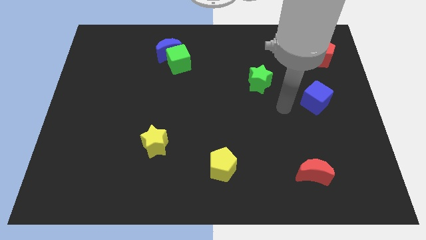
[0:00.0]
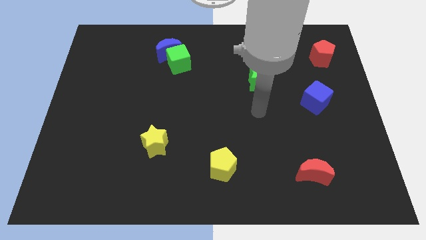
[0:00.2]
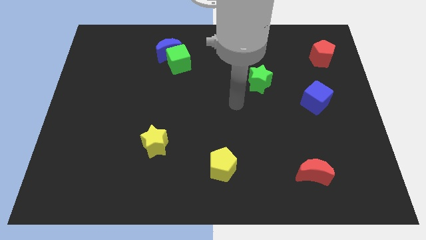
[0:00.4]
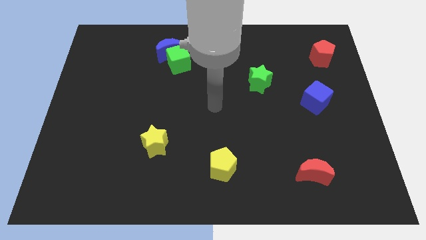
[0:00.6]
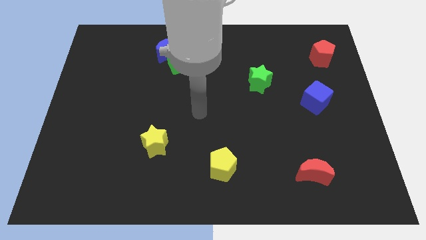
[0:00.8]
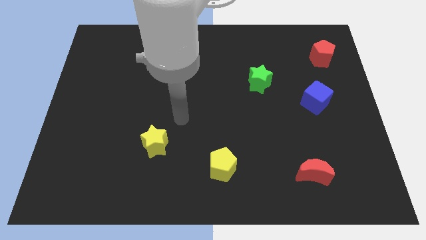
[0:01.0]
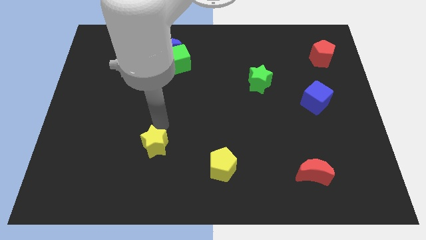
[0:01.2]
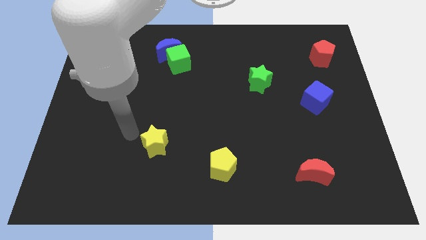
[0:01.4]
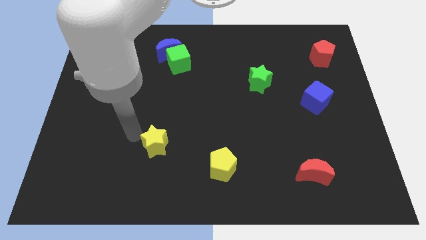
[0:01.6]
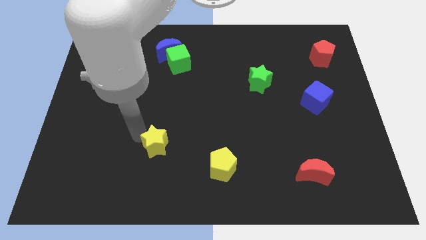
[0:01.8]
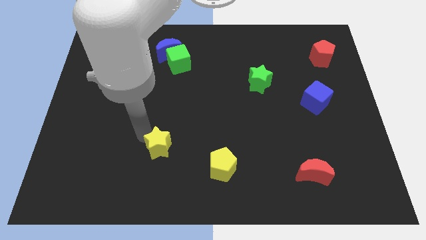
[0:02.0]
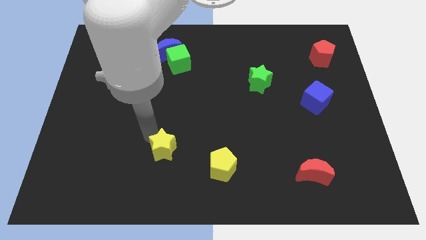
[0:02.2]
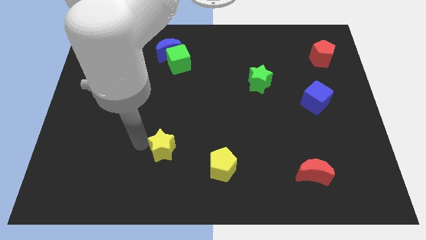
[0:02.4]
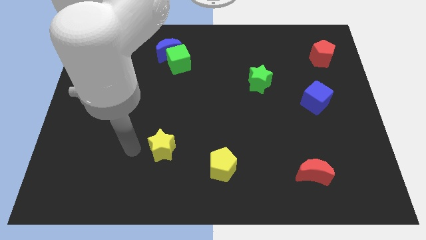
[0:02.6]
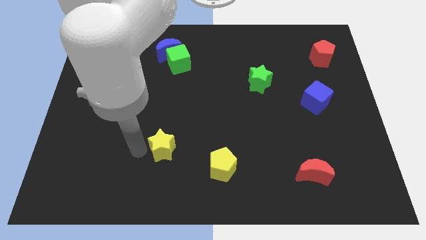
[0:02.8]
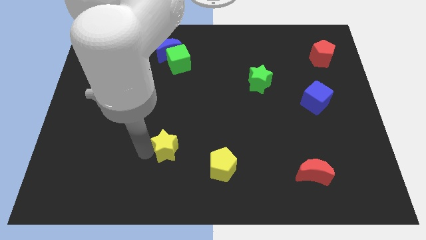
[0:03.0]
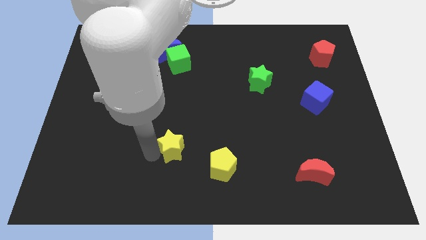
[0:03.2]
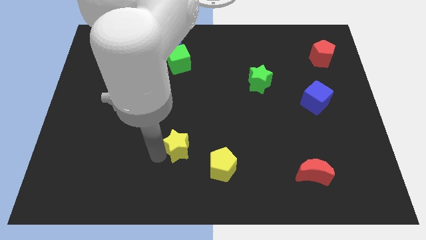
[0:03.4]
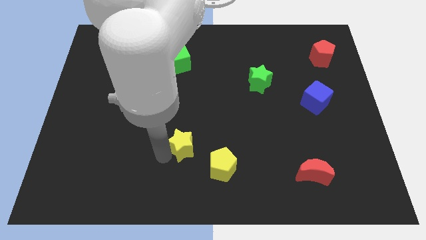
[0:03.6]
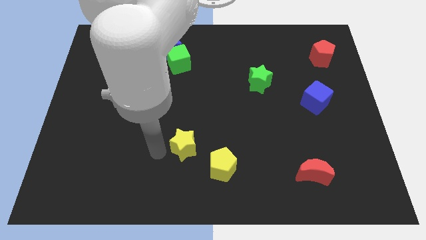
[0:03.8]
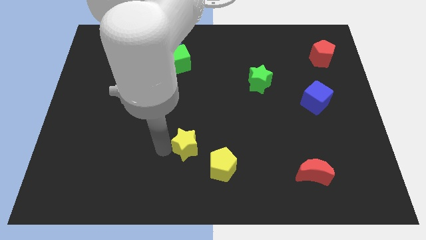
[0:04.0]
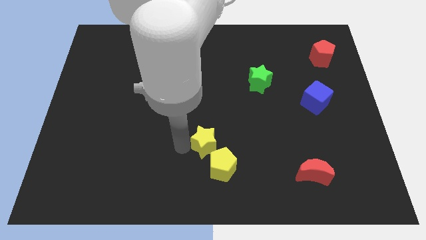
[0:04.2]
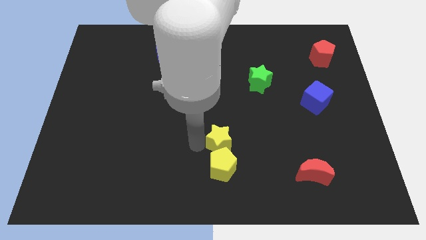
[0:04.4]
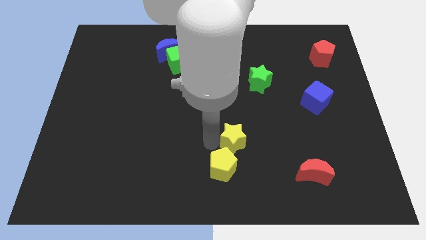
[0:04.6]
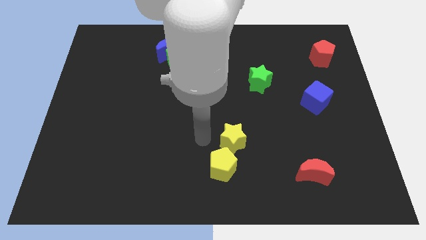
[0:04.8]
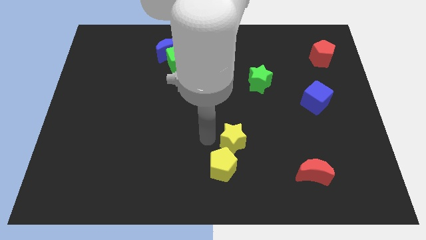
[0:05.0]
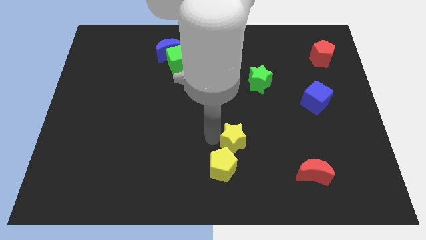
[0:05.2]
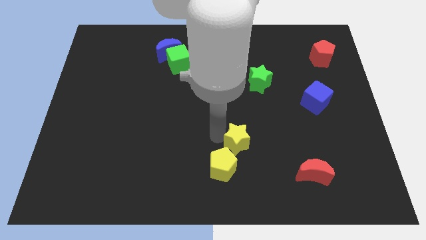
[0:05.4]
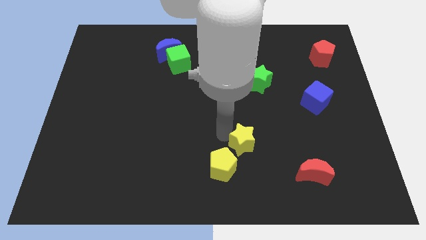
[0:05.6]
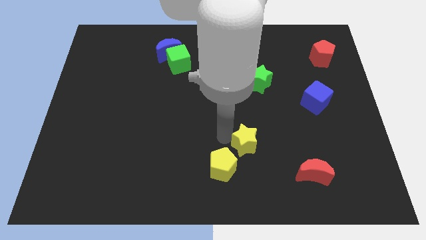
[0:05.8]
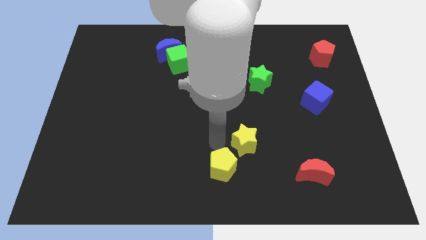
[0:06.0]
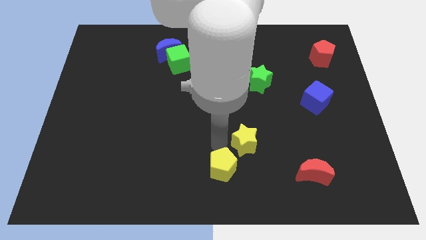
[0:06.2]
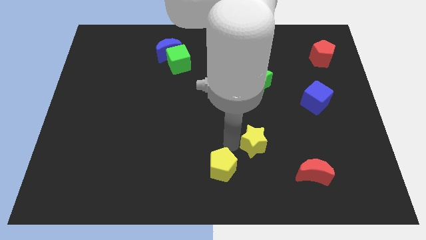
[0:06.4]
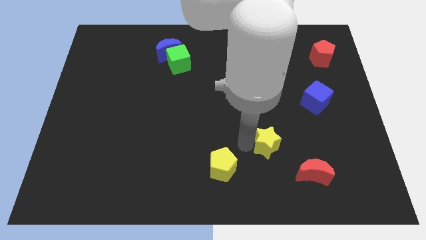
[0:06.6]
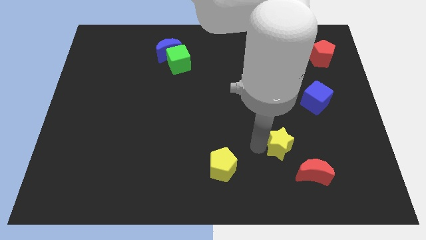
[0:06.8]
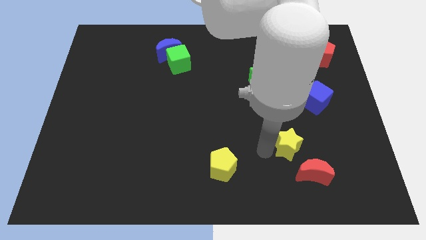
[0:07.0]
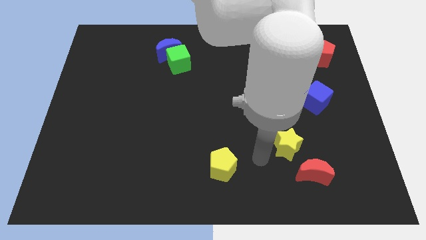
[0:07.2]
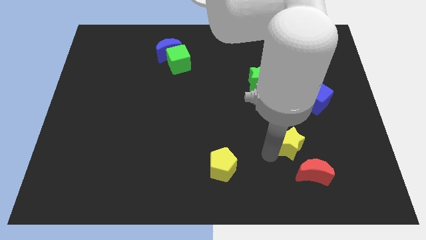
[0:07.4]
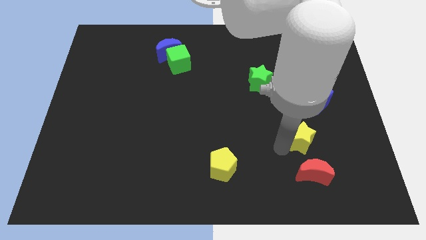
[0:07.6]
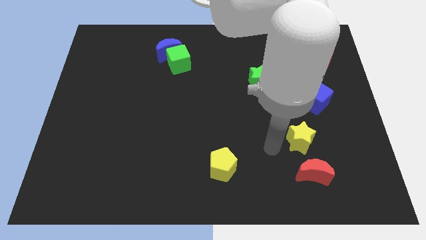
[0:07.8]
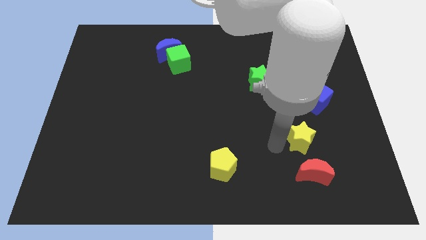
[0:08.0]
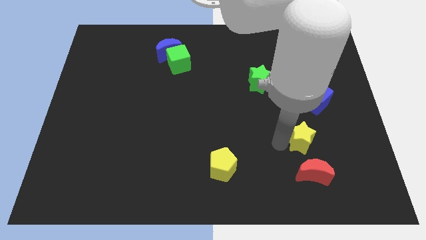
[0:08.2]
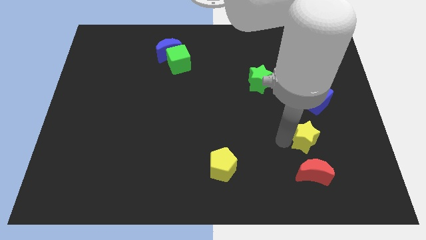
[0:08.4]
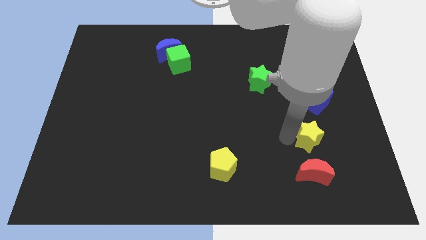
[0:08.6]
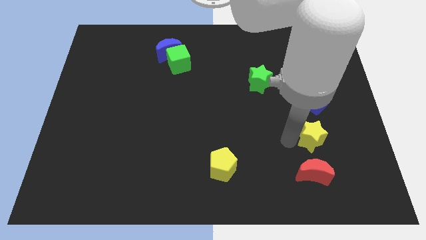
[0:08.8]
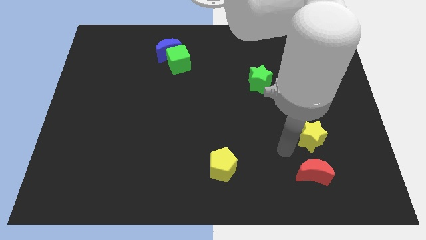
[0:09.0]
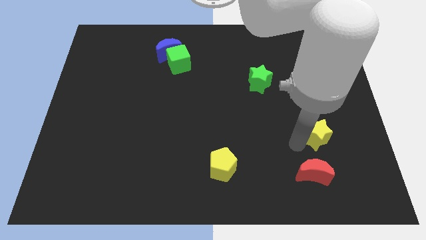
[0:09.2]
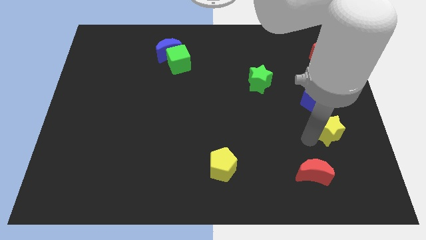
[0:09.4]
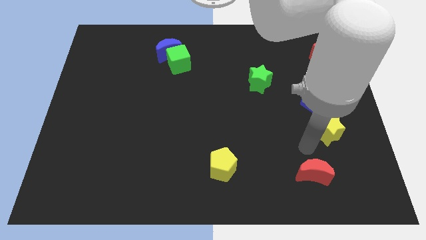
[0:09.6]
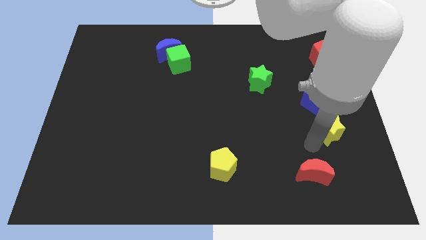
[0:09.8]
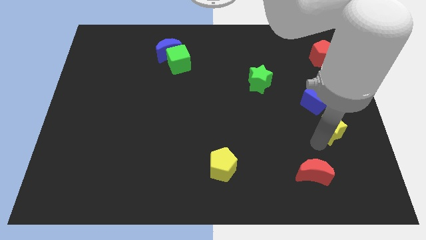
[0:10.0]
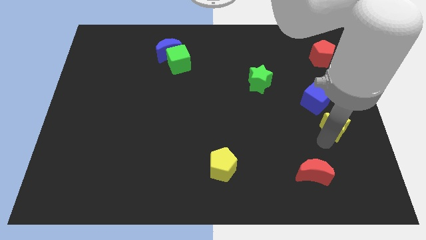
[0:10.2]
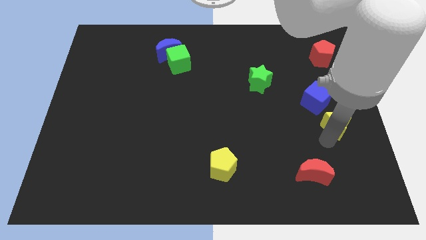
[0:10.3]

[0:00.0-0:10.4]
push the yellow star to the center right
